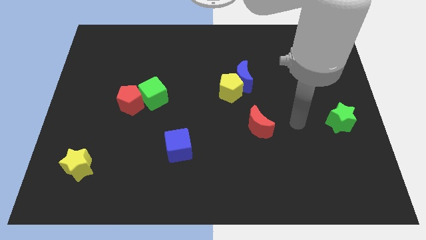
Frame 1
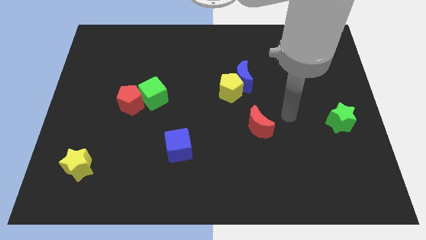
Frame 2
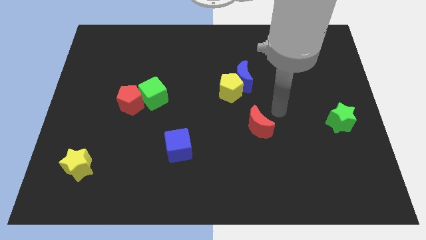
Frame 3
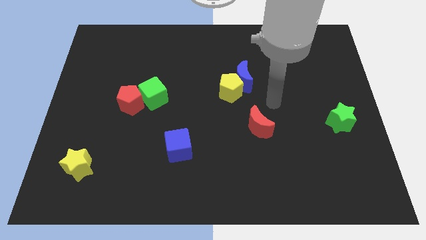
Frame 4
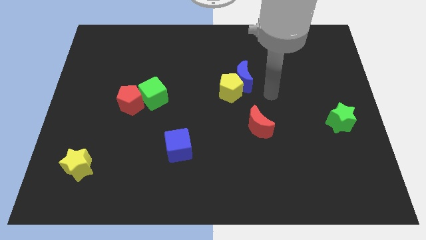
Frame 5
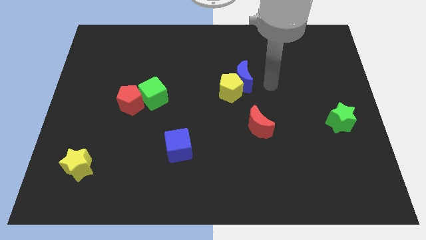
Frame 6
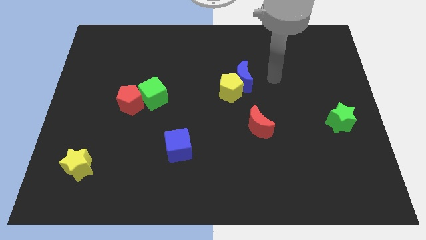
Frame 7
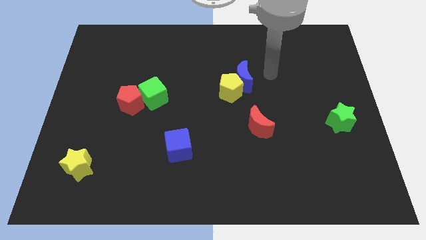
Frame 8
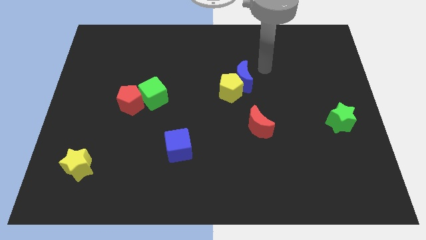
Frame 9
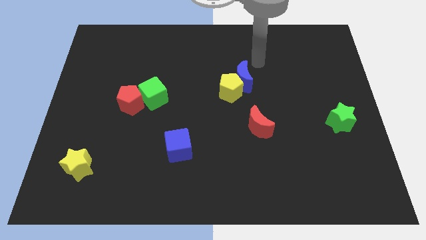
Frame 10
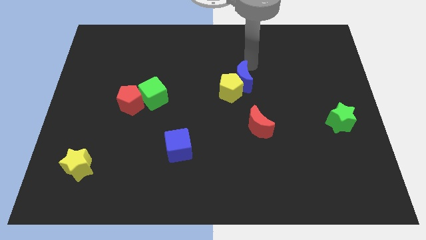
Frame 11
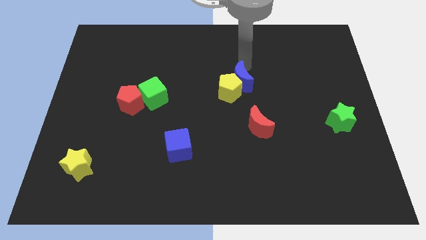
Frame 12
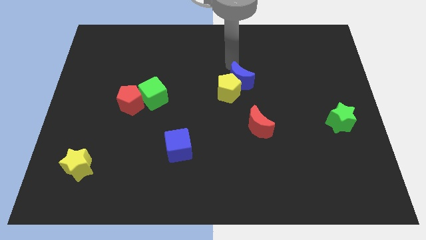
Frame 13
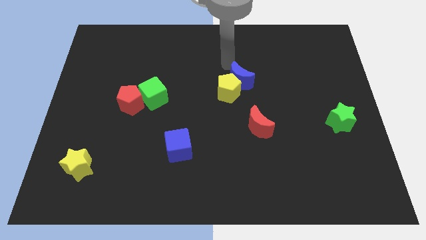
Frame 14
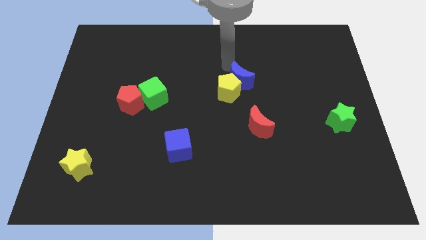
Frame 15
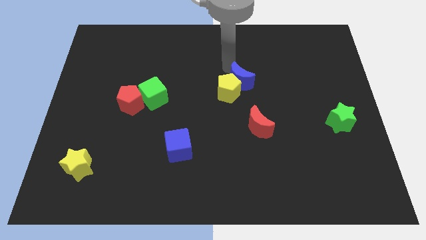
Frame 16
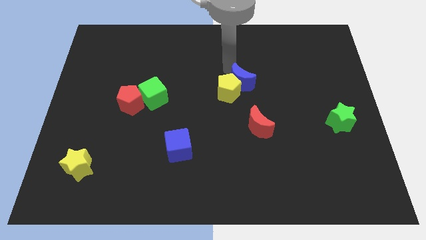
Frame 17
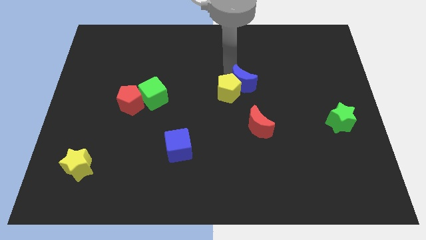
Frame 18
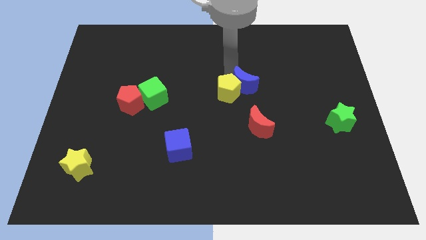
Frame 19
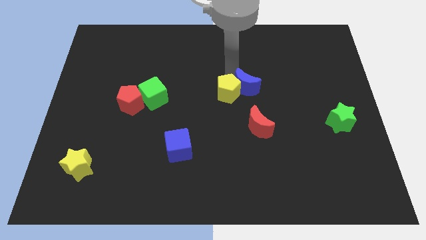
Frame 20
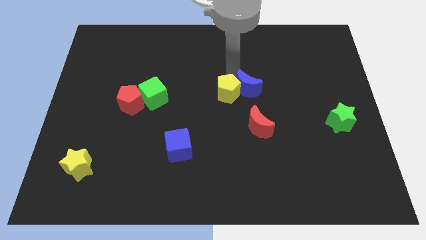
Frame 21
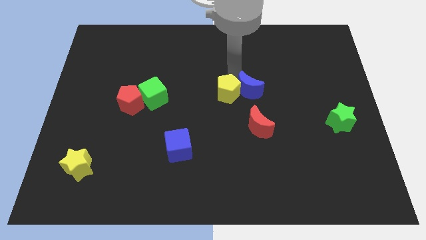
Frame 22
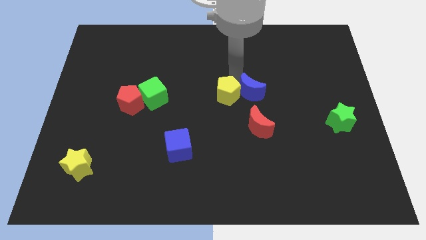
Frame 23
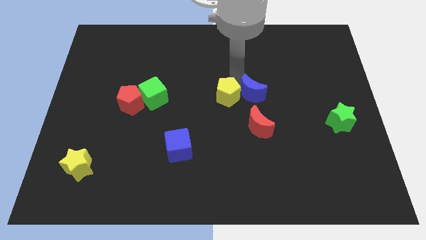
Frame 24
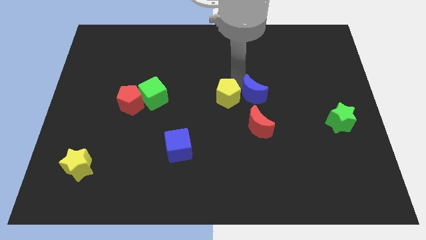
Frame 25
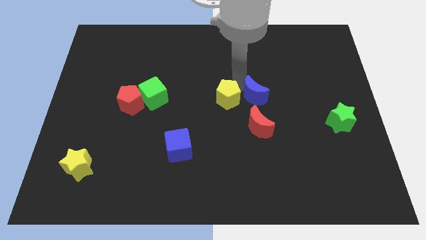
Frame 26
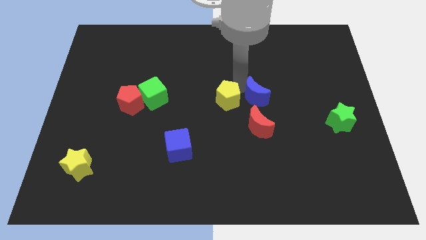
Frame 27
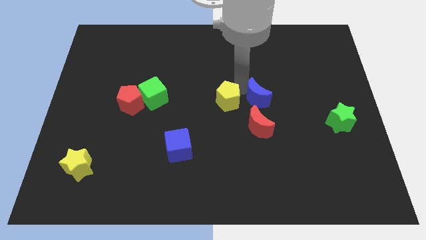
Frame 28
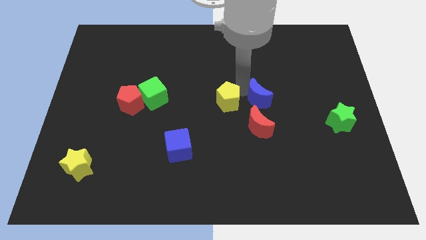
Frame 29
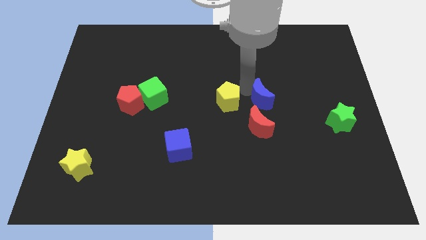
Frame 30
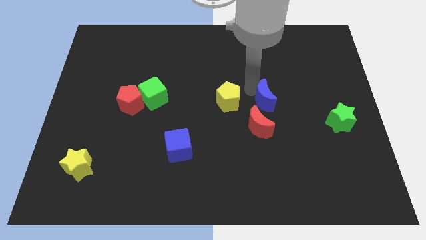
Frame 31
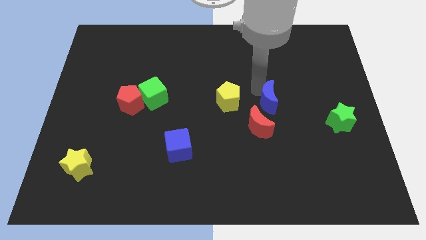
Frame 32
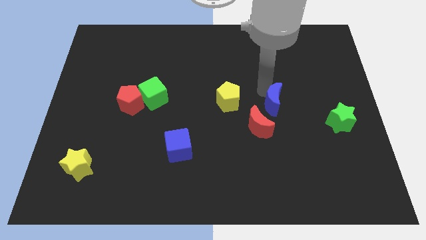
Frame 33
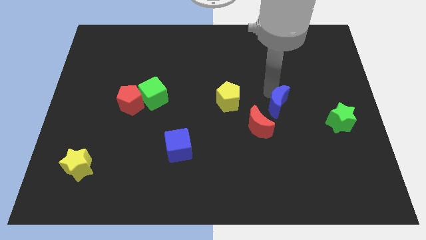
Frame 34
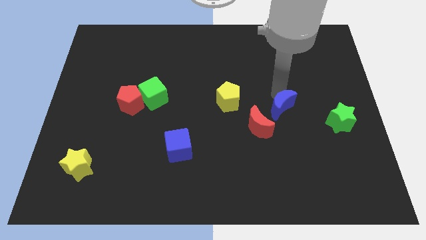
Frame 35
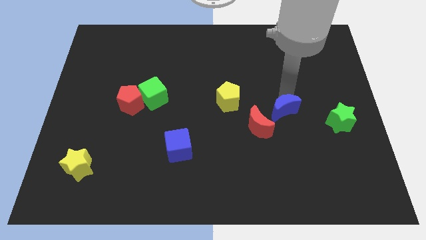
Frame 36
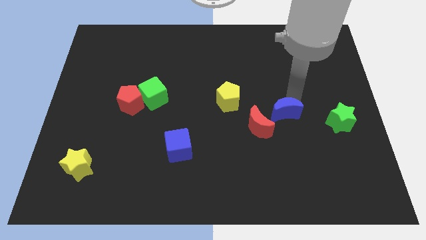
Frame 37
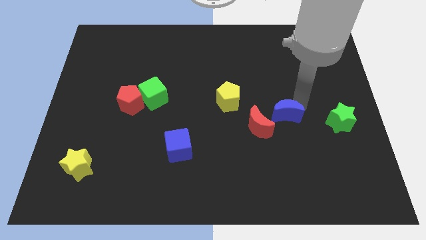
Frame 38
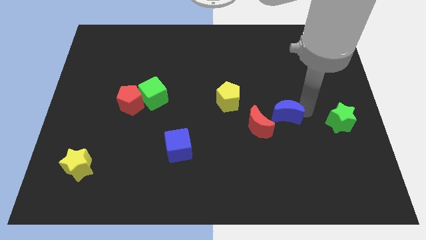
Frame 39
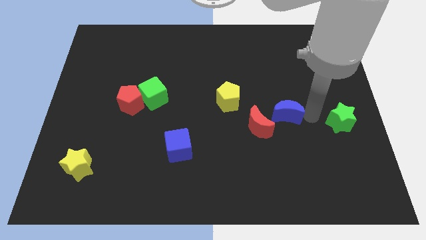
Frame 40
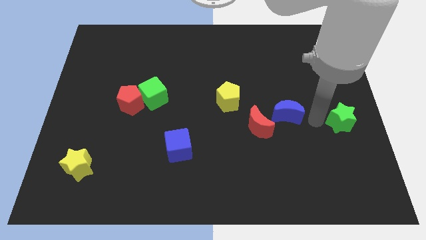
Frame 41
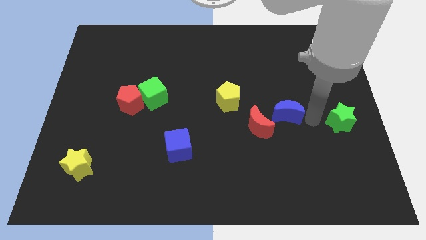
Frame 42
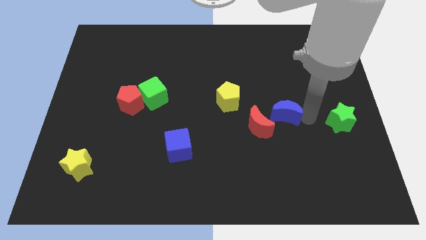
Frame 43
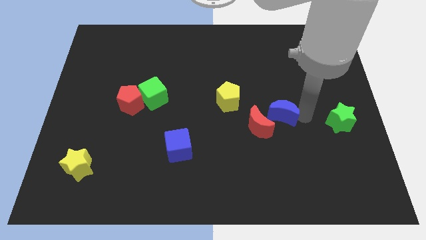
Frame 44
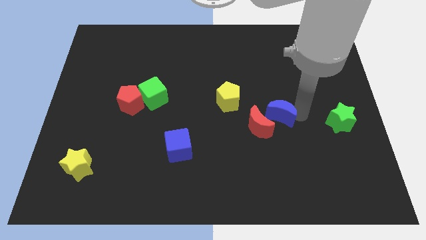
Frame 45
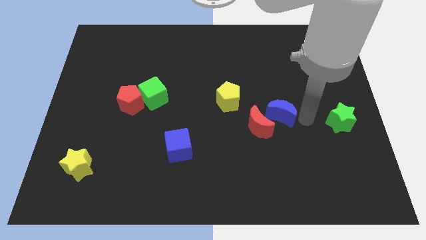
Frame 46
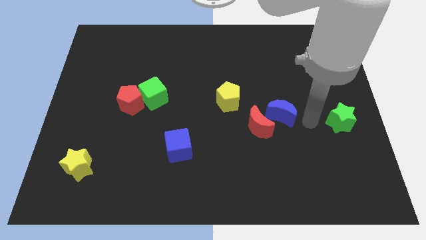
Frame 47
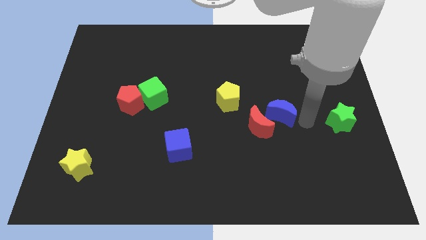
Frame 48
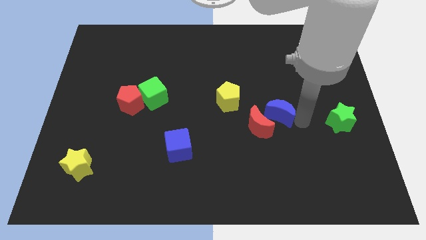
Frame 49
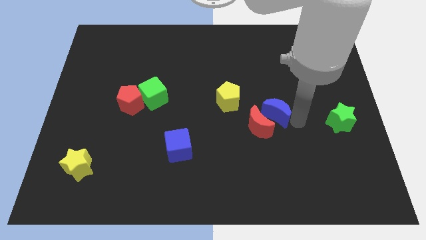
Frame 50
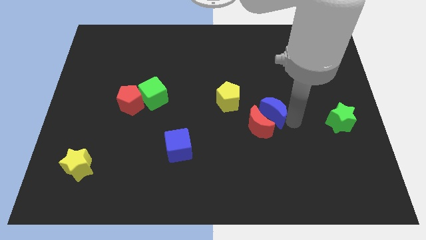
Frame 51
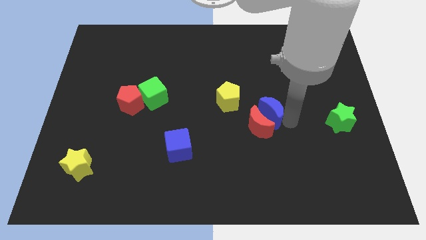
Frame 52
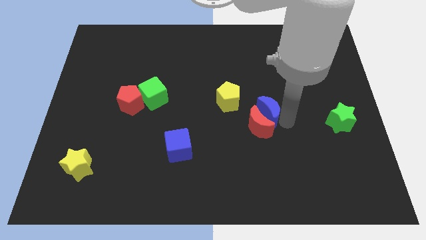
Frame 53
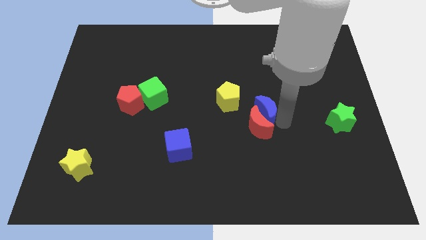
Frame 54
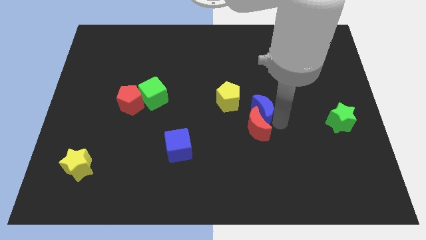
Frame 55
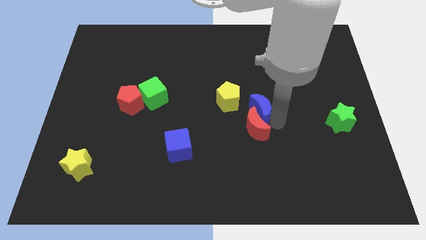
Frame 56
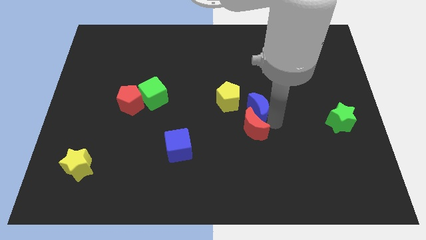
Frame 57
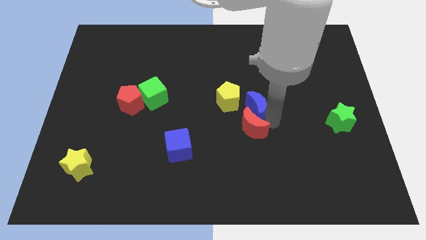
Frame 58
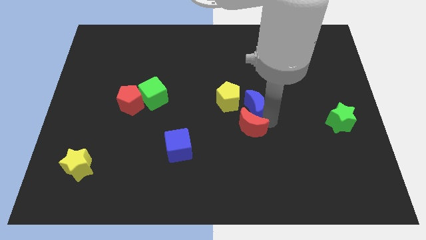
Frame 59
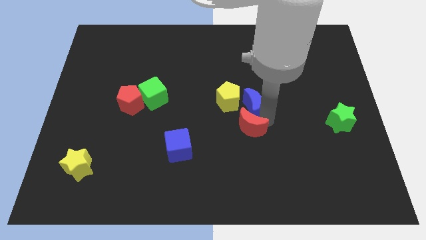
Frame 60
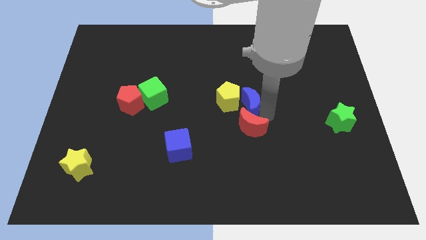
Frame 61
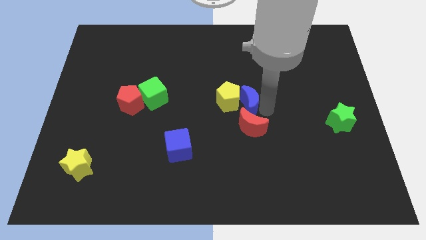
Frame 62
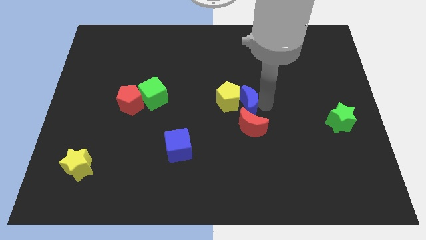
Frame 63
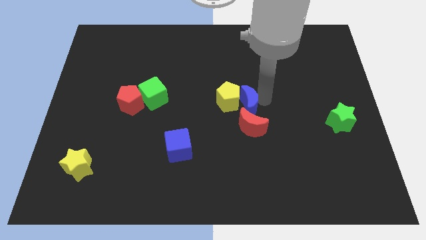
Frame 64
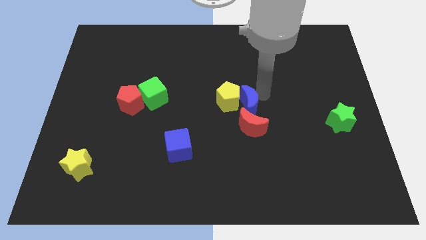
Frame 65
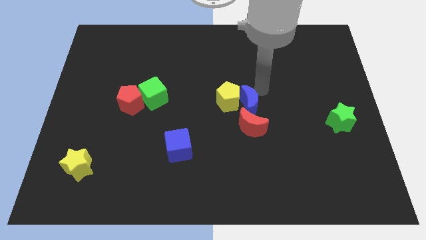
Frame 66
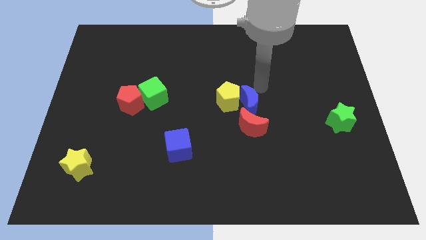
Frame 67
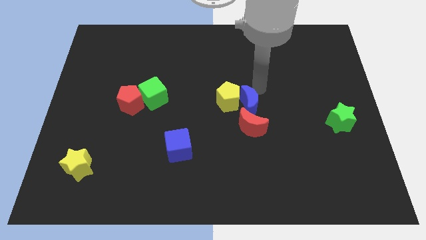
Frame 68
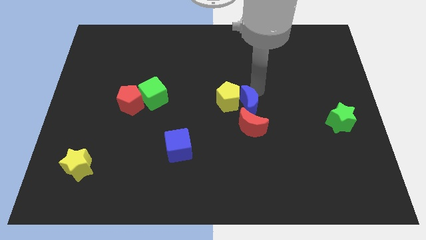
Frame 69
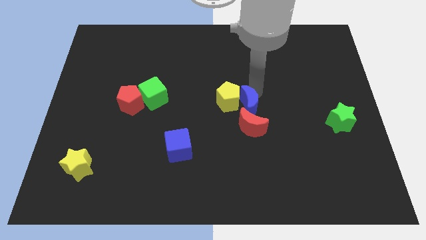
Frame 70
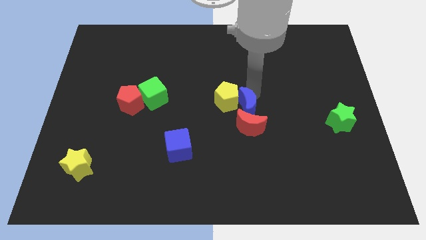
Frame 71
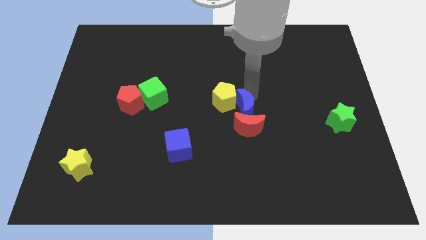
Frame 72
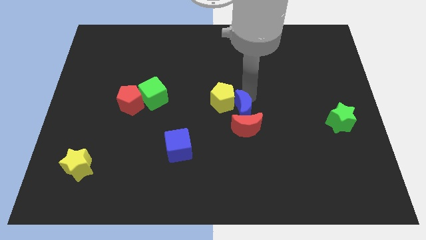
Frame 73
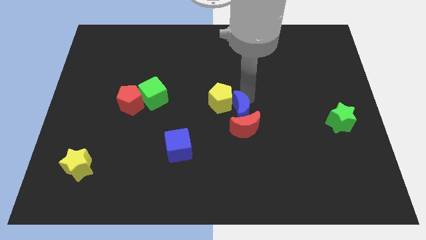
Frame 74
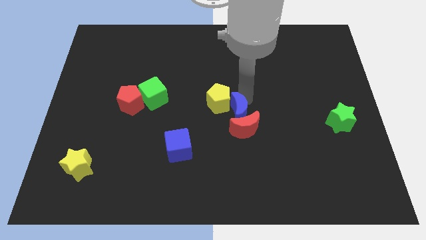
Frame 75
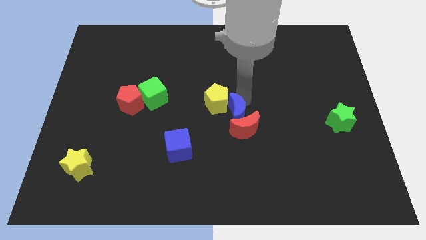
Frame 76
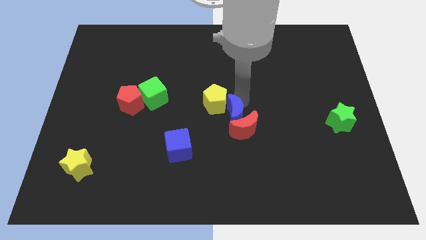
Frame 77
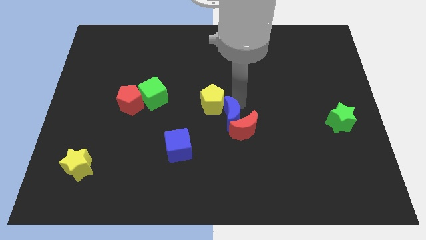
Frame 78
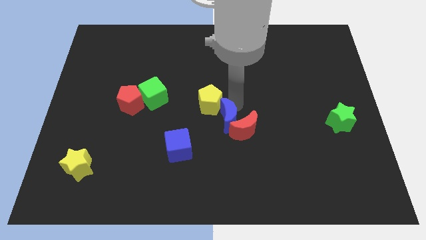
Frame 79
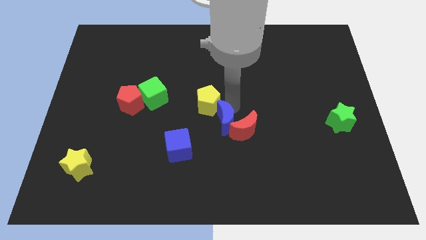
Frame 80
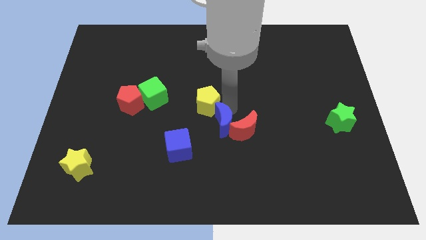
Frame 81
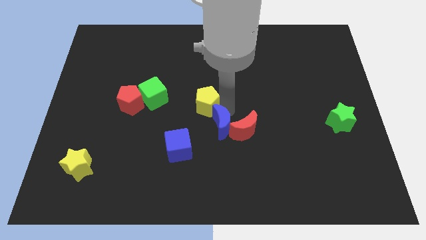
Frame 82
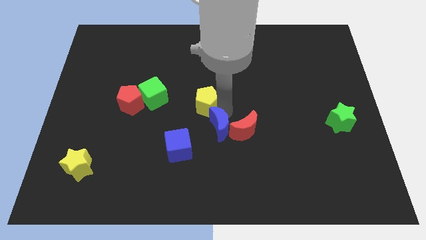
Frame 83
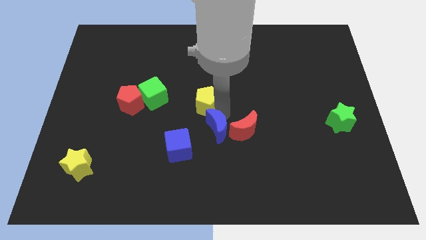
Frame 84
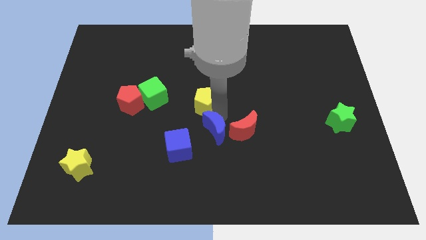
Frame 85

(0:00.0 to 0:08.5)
slide the blue moon to the right of the blue cube
